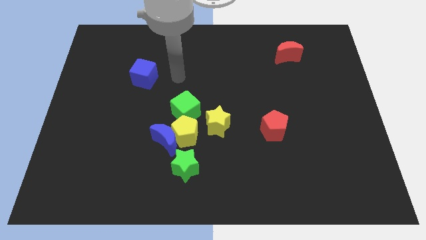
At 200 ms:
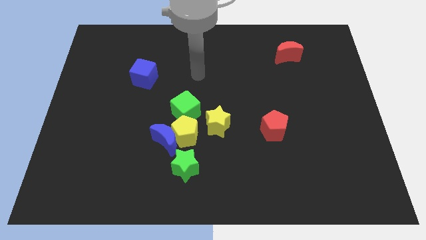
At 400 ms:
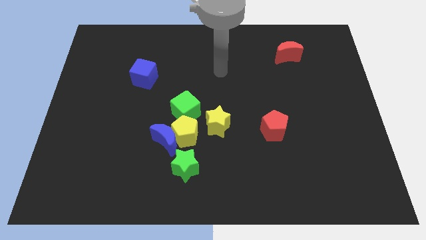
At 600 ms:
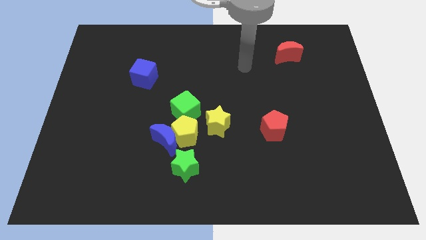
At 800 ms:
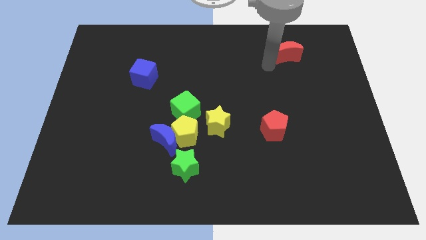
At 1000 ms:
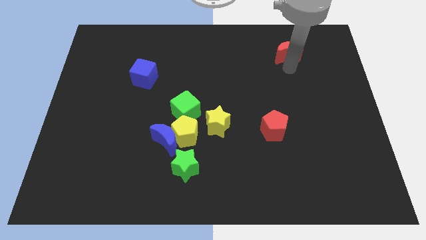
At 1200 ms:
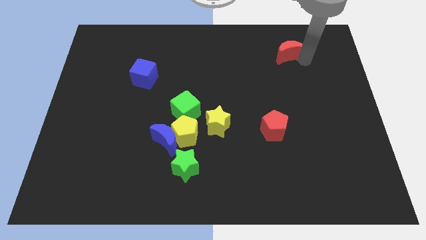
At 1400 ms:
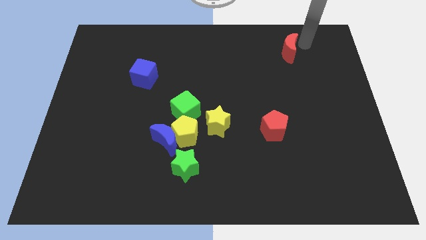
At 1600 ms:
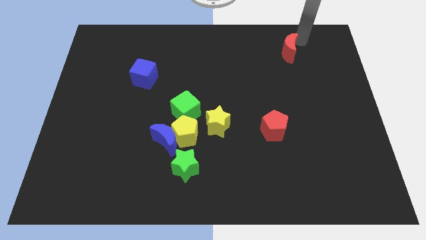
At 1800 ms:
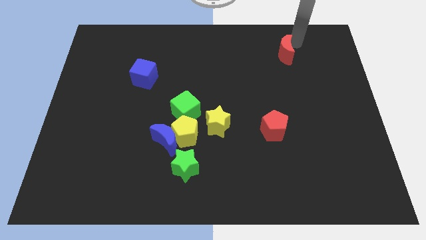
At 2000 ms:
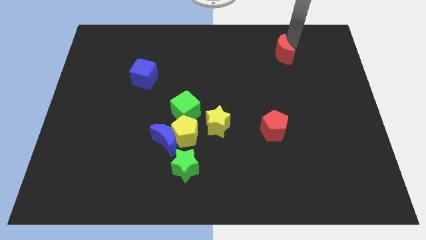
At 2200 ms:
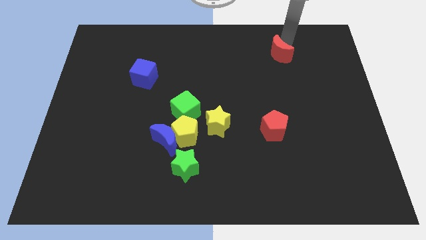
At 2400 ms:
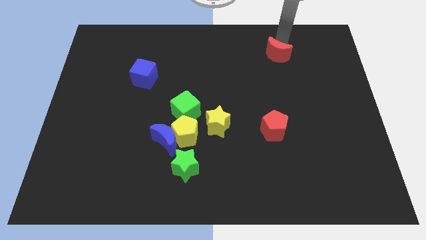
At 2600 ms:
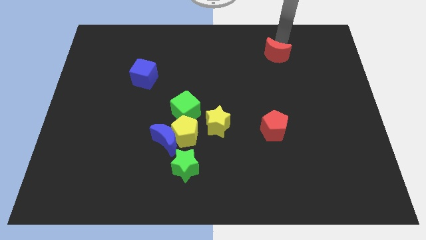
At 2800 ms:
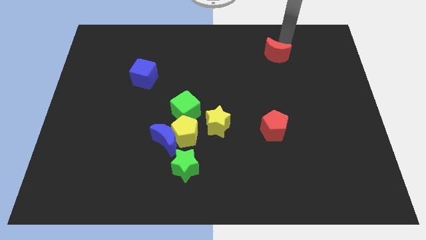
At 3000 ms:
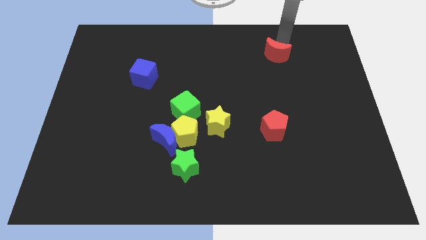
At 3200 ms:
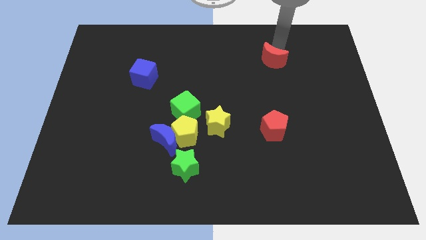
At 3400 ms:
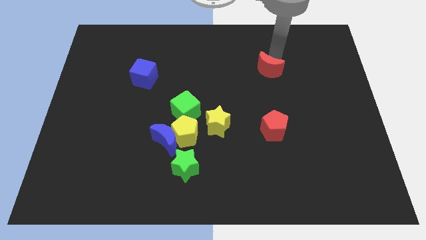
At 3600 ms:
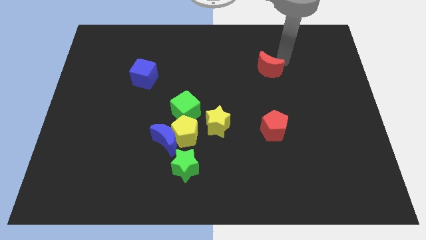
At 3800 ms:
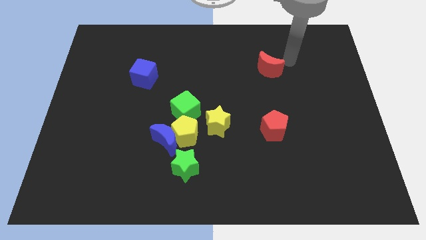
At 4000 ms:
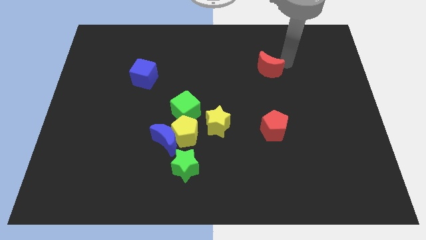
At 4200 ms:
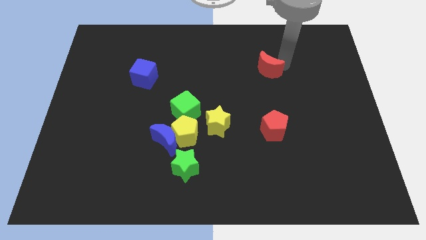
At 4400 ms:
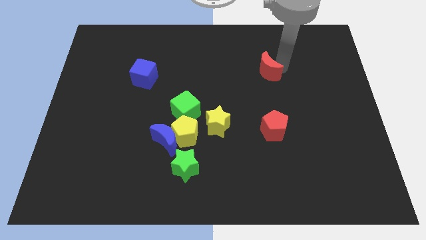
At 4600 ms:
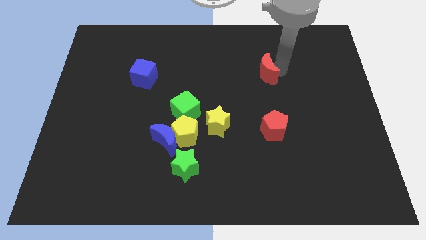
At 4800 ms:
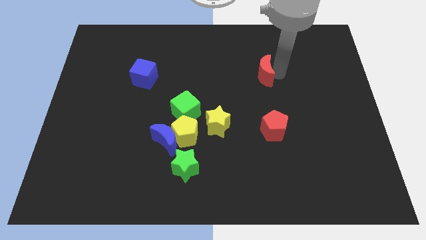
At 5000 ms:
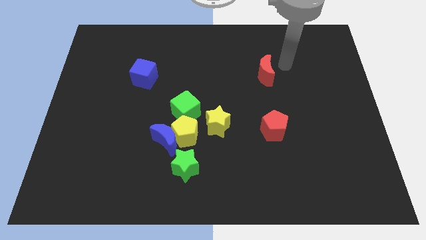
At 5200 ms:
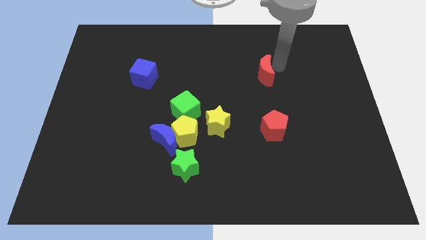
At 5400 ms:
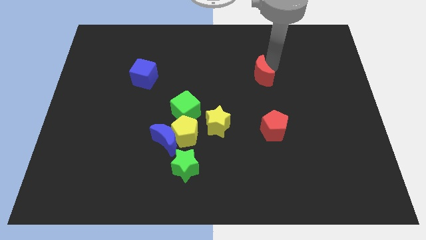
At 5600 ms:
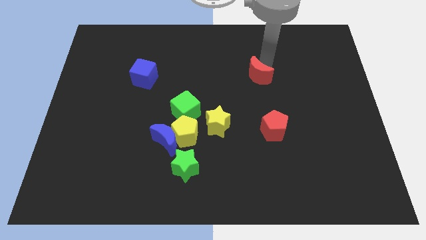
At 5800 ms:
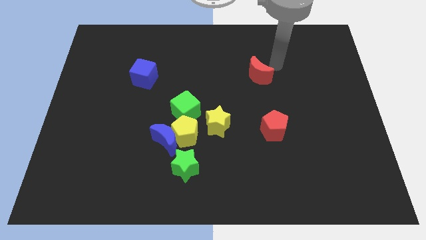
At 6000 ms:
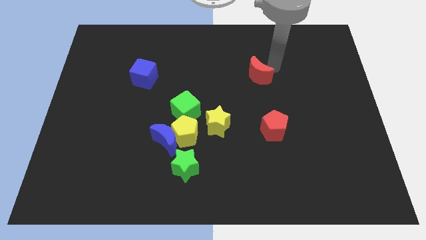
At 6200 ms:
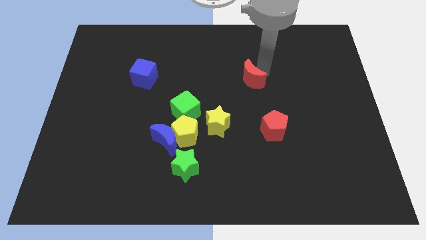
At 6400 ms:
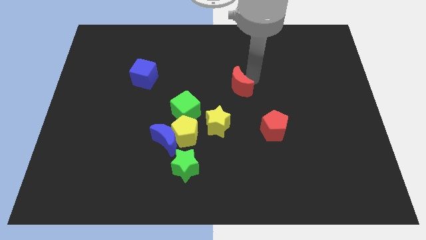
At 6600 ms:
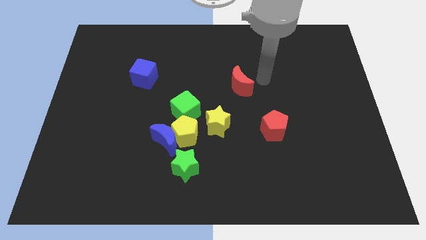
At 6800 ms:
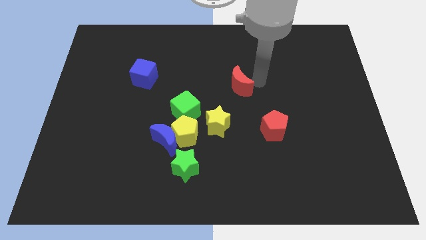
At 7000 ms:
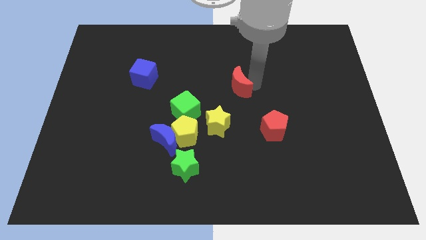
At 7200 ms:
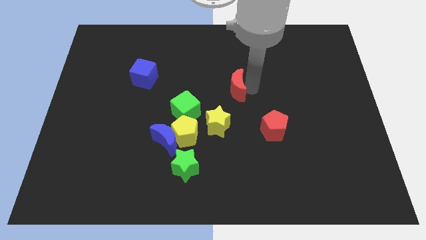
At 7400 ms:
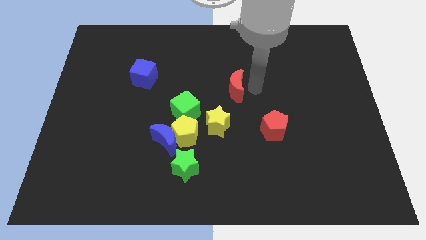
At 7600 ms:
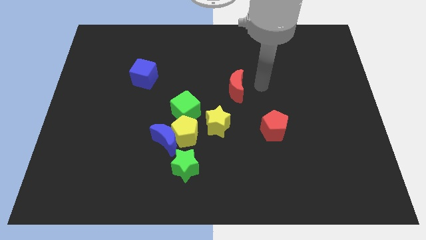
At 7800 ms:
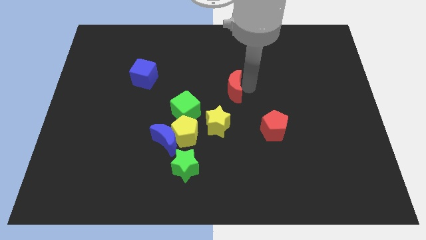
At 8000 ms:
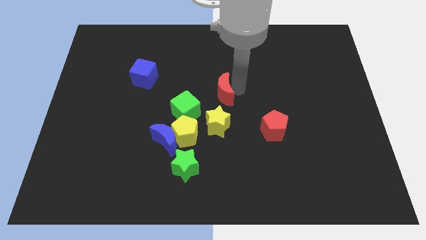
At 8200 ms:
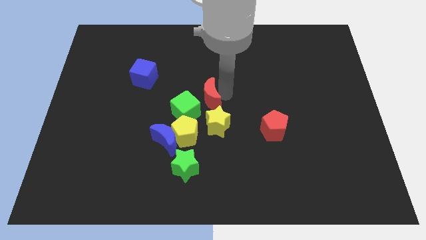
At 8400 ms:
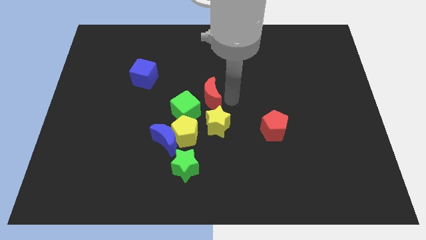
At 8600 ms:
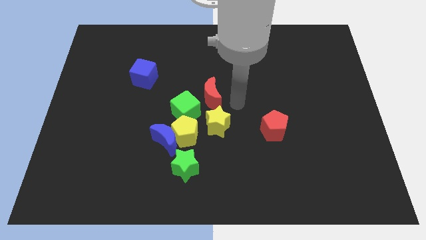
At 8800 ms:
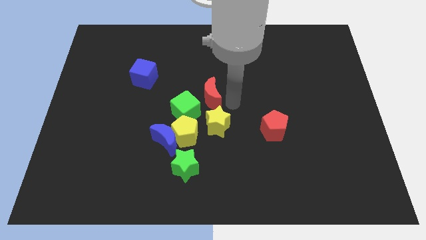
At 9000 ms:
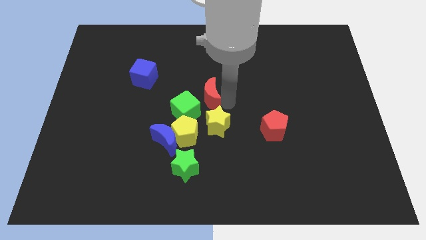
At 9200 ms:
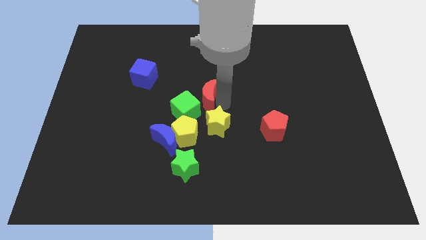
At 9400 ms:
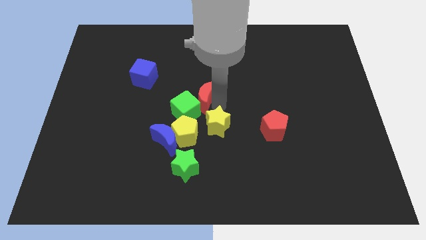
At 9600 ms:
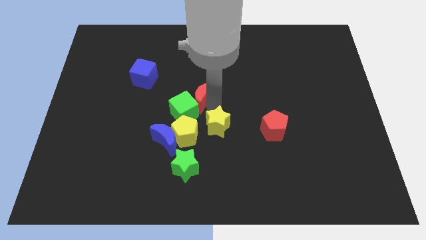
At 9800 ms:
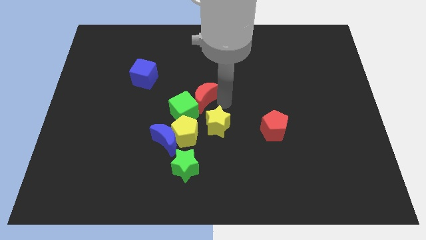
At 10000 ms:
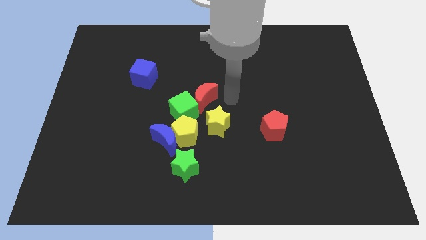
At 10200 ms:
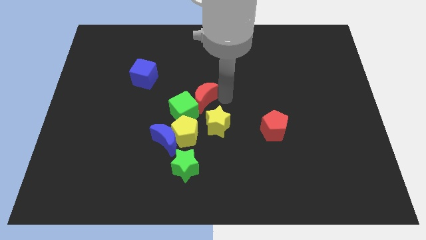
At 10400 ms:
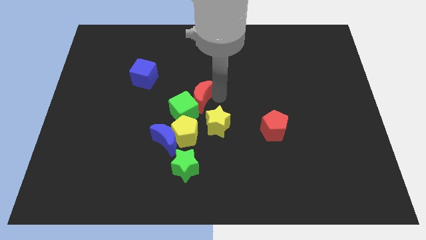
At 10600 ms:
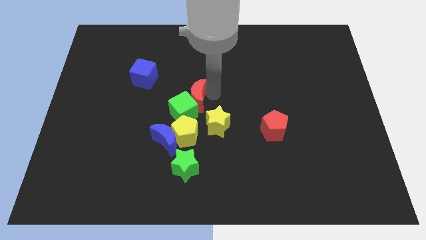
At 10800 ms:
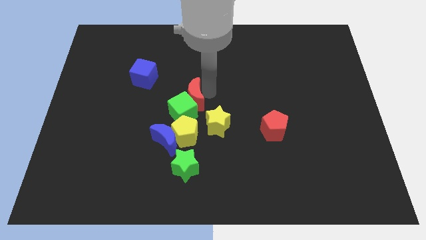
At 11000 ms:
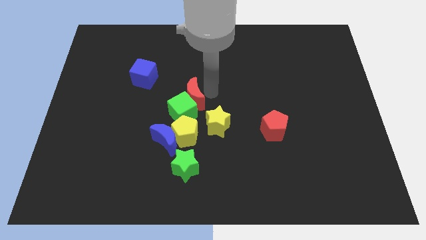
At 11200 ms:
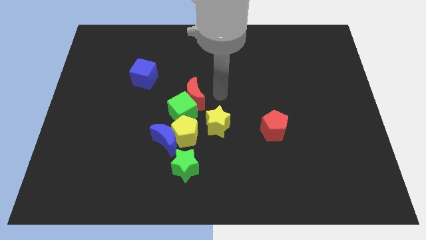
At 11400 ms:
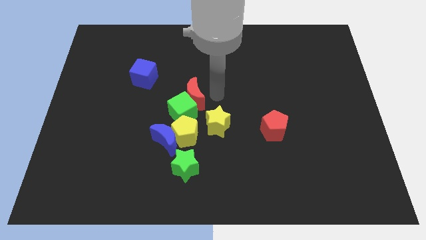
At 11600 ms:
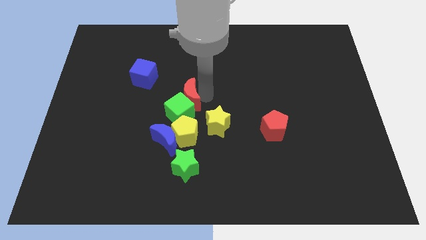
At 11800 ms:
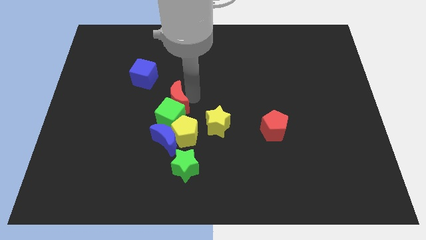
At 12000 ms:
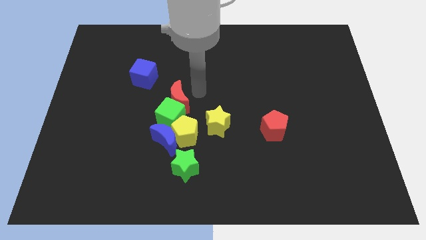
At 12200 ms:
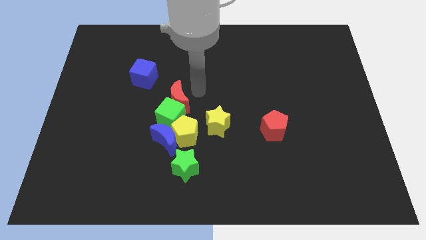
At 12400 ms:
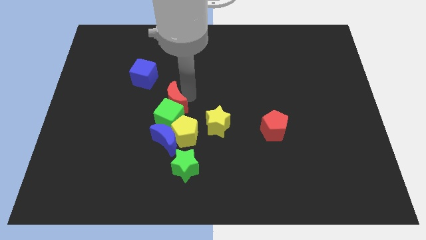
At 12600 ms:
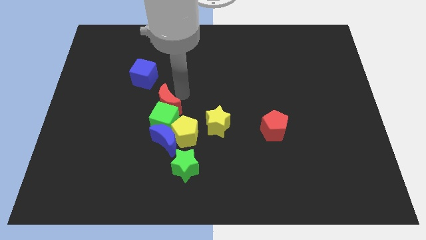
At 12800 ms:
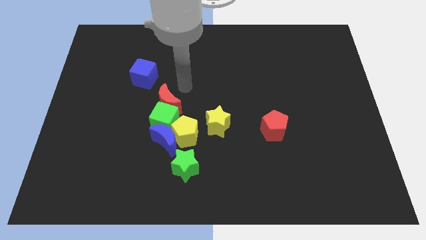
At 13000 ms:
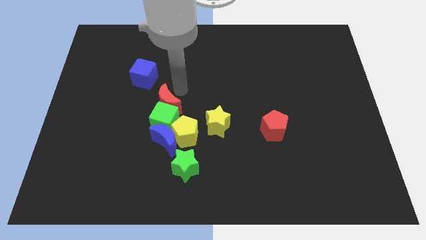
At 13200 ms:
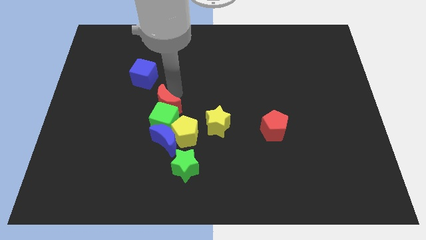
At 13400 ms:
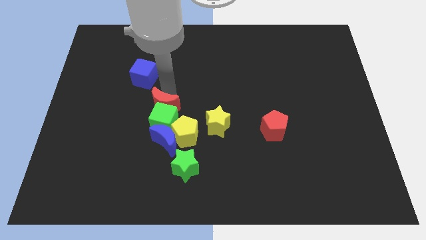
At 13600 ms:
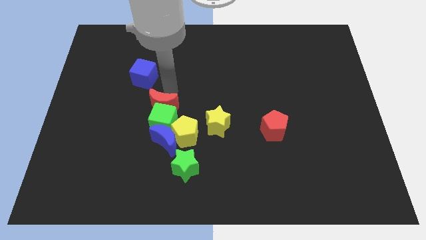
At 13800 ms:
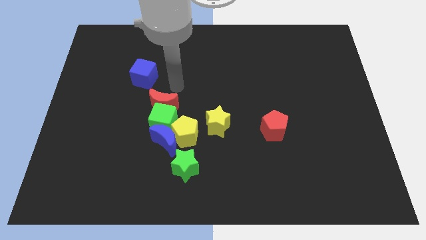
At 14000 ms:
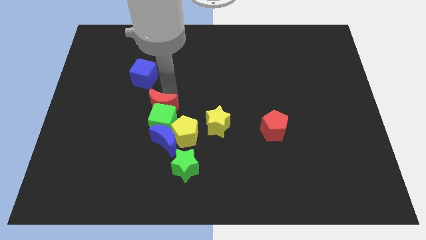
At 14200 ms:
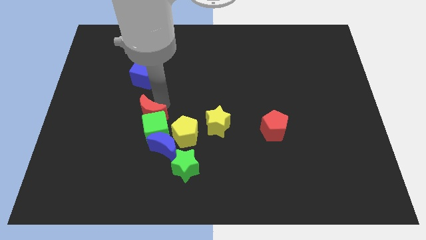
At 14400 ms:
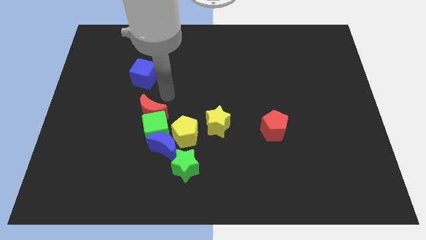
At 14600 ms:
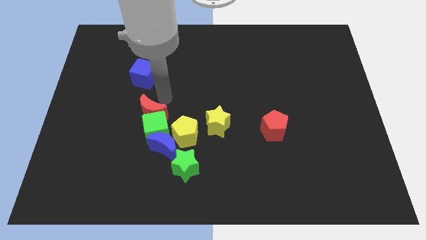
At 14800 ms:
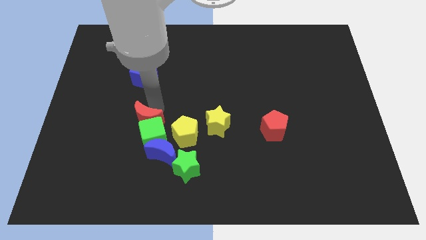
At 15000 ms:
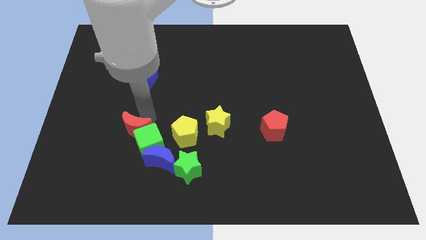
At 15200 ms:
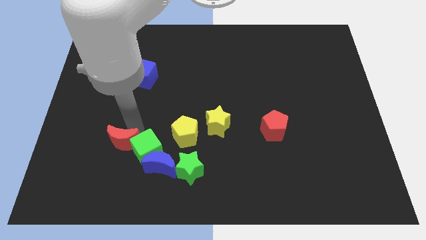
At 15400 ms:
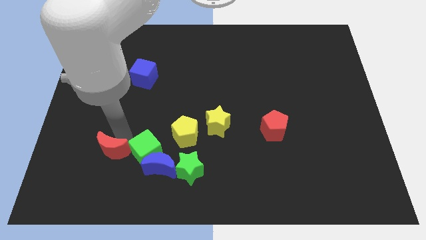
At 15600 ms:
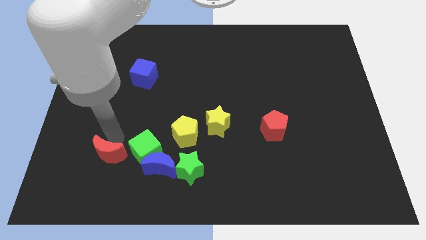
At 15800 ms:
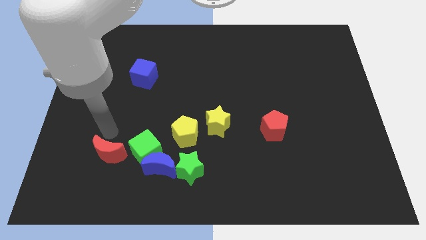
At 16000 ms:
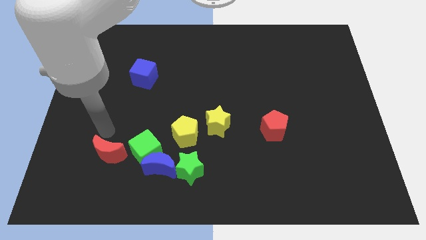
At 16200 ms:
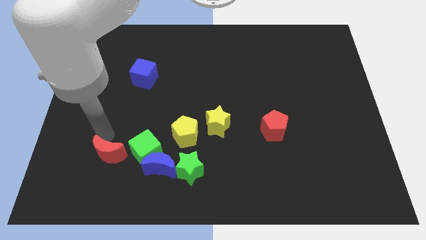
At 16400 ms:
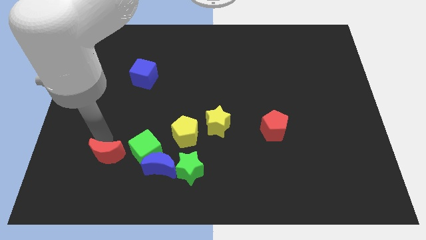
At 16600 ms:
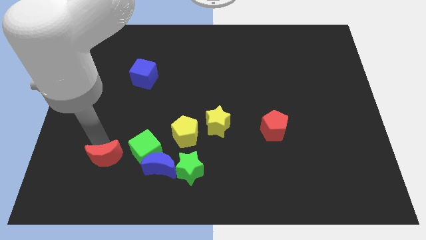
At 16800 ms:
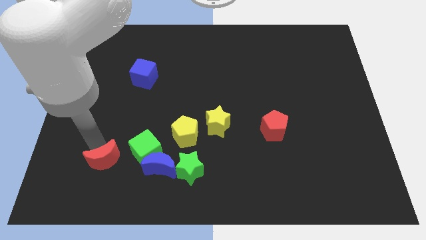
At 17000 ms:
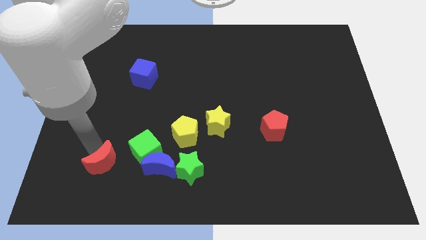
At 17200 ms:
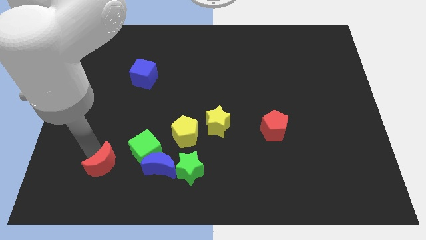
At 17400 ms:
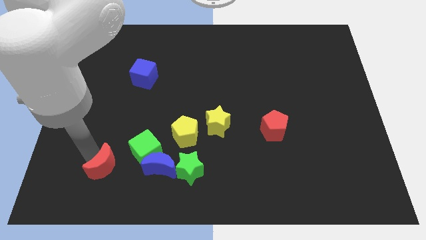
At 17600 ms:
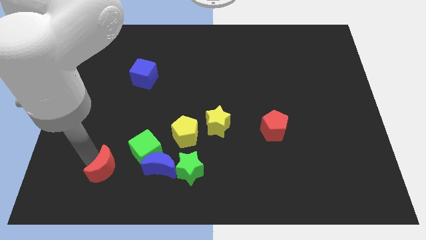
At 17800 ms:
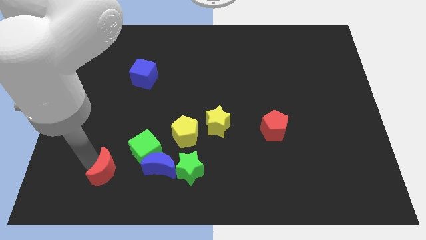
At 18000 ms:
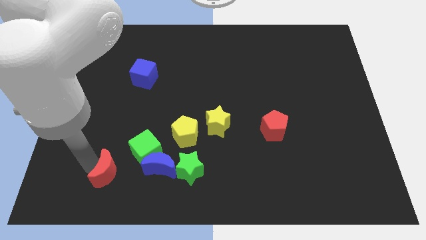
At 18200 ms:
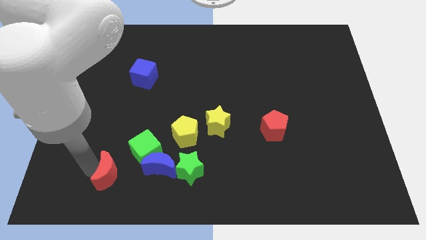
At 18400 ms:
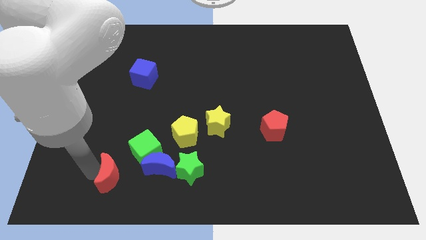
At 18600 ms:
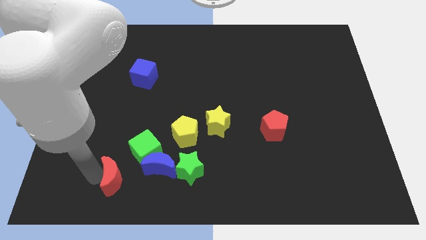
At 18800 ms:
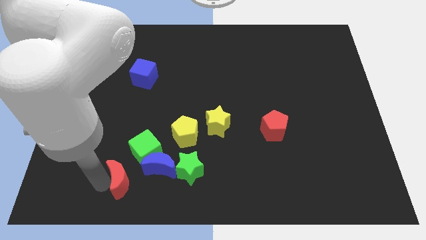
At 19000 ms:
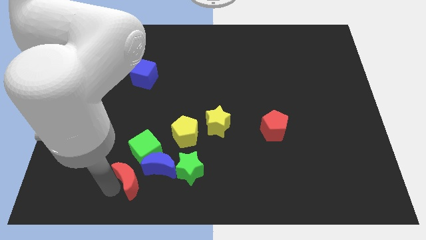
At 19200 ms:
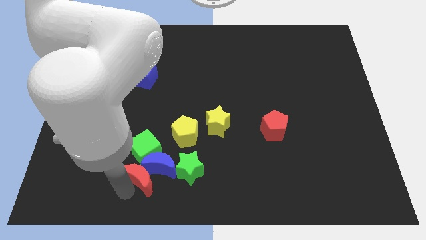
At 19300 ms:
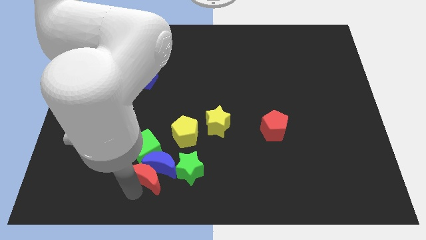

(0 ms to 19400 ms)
slide the red moon just left of the blue moon
